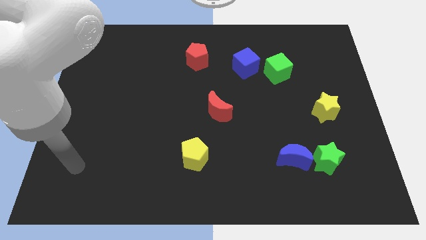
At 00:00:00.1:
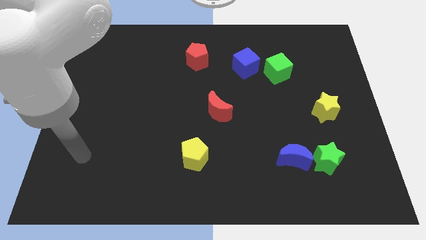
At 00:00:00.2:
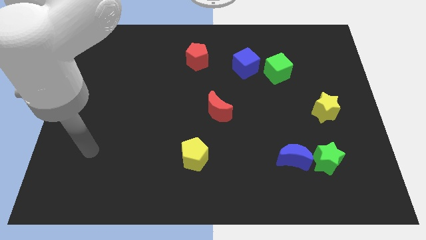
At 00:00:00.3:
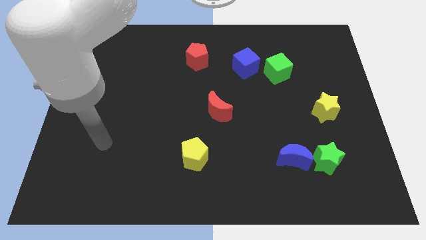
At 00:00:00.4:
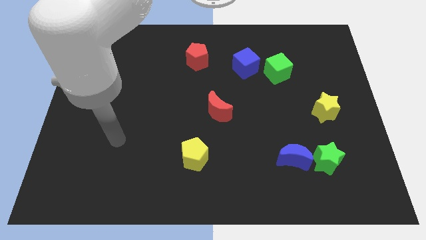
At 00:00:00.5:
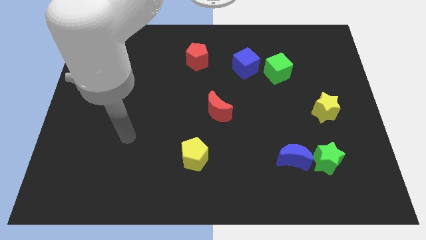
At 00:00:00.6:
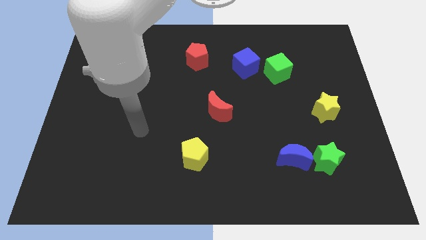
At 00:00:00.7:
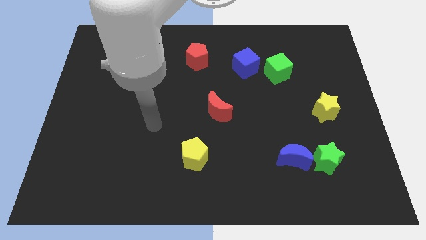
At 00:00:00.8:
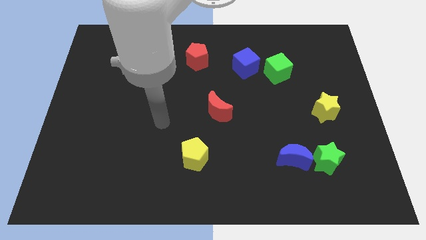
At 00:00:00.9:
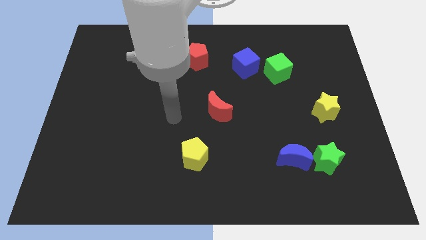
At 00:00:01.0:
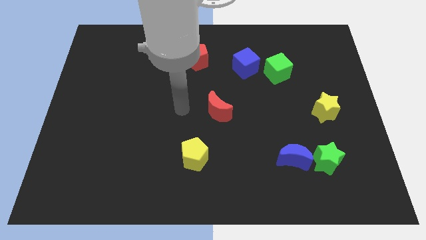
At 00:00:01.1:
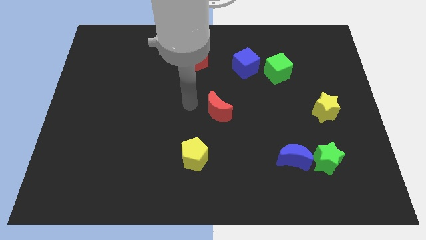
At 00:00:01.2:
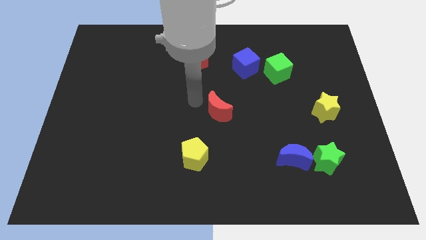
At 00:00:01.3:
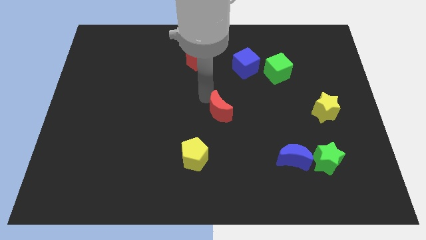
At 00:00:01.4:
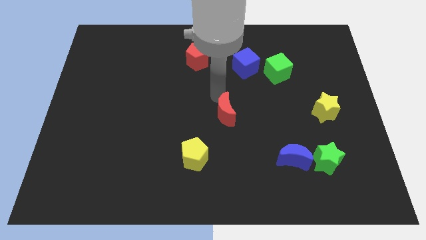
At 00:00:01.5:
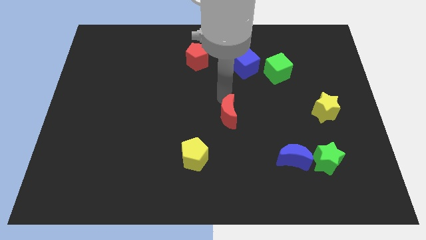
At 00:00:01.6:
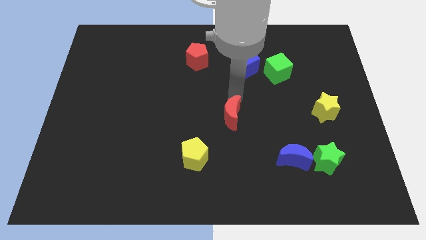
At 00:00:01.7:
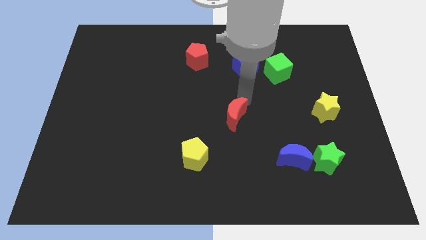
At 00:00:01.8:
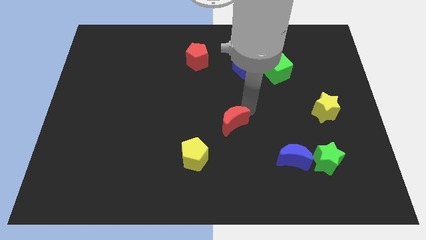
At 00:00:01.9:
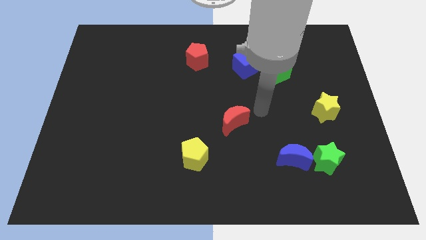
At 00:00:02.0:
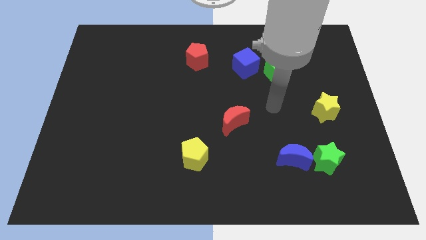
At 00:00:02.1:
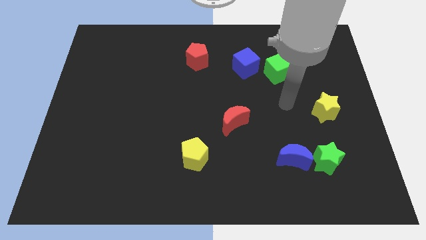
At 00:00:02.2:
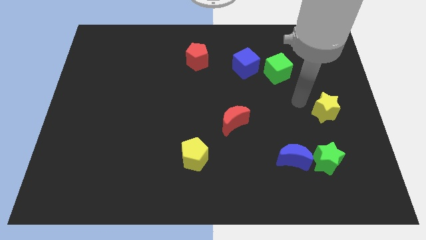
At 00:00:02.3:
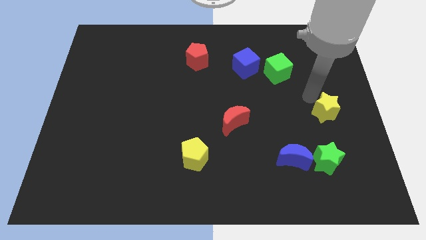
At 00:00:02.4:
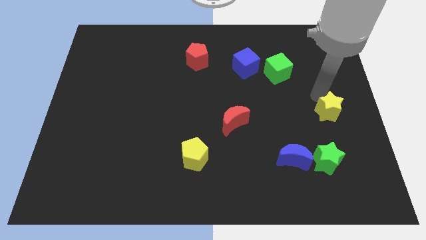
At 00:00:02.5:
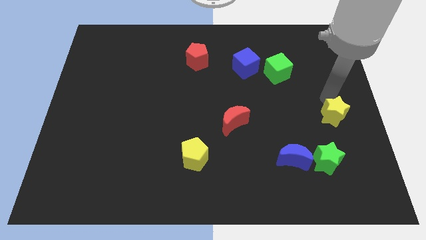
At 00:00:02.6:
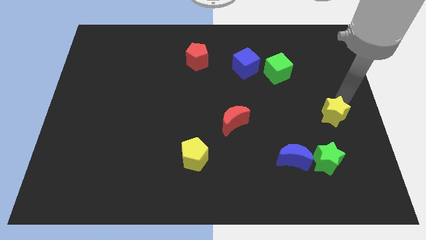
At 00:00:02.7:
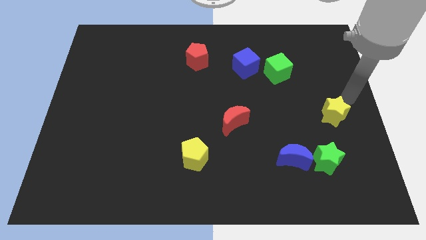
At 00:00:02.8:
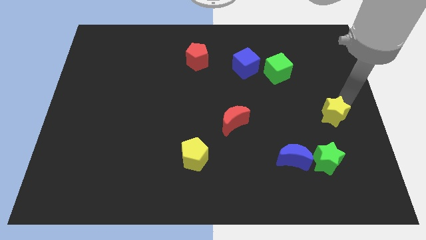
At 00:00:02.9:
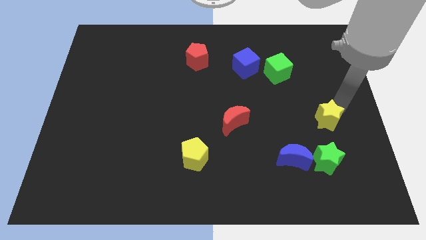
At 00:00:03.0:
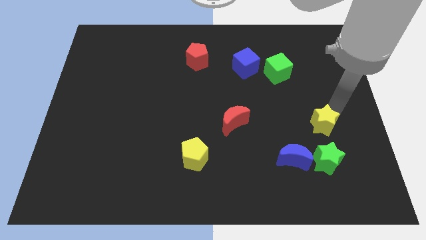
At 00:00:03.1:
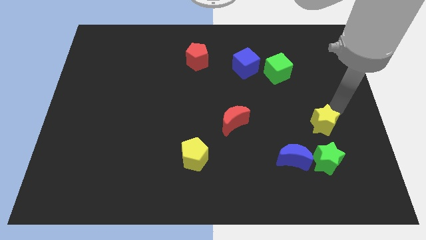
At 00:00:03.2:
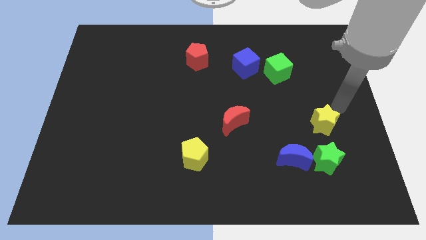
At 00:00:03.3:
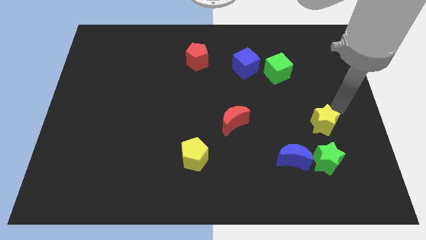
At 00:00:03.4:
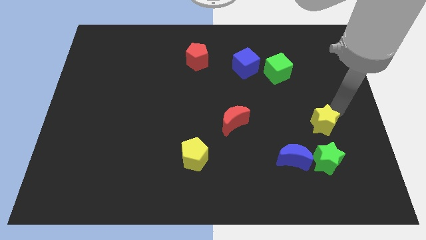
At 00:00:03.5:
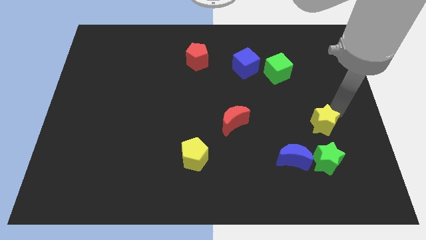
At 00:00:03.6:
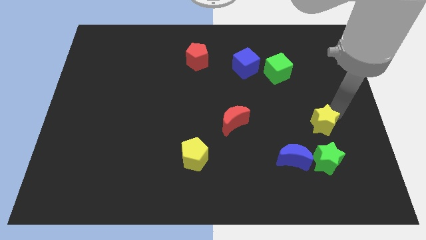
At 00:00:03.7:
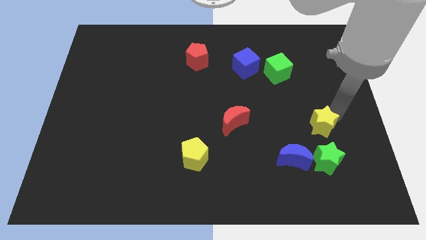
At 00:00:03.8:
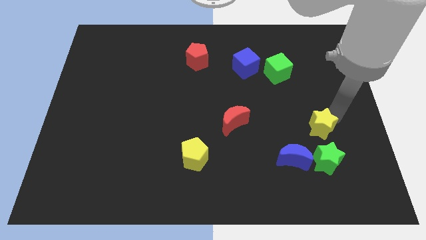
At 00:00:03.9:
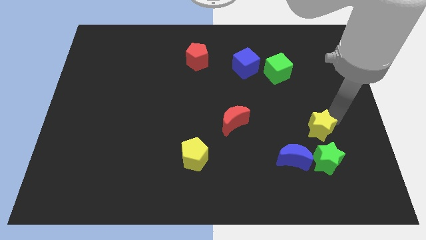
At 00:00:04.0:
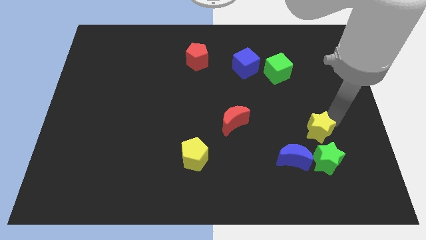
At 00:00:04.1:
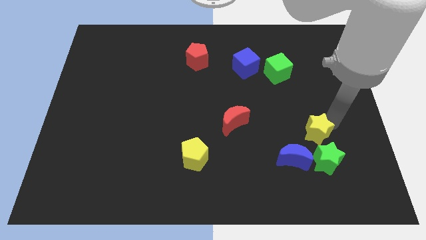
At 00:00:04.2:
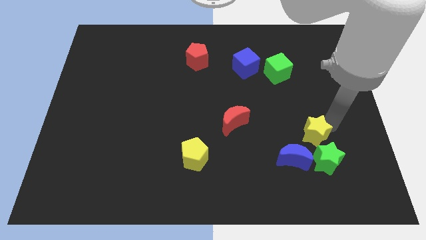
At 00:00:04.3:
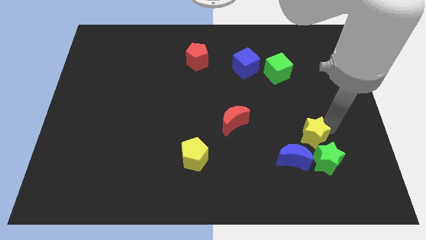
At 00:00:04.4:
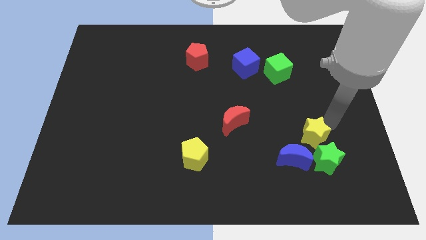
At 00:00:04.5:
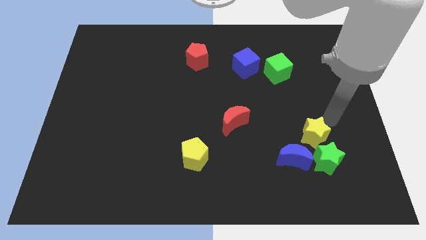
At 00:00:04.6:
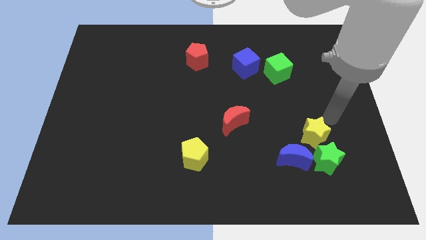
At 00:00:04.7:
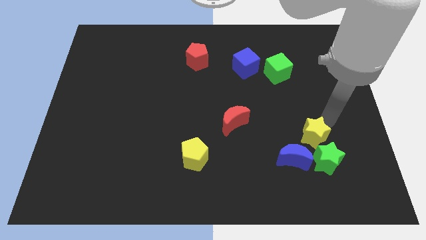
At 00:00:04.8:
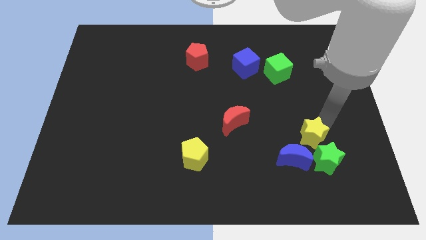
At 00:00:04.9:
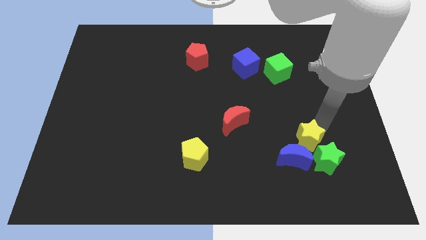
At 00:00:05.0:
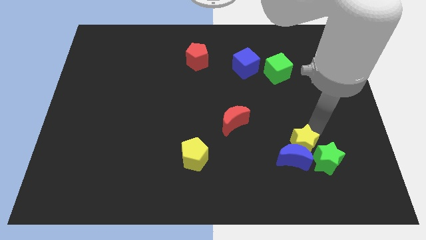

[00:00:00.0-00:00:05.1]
slide the yellow star to the blue moon

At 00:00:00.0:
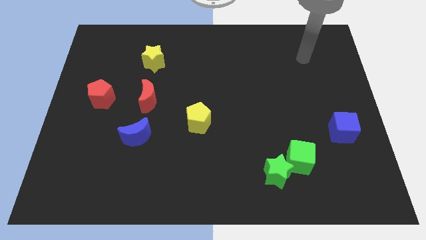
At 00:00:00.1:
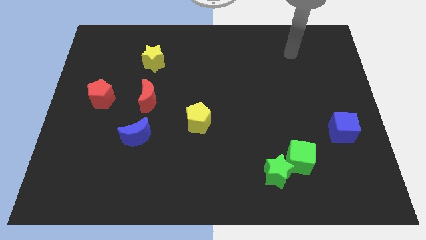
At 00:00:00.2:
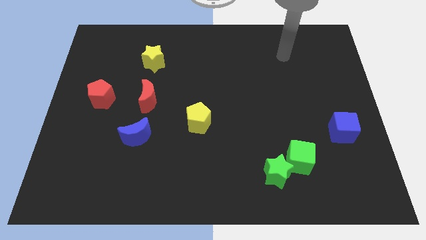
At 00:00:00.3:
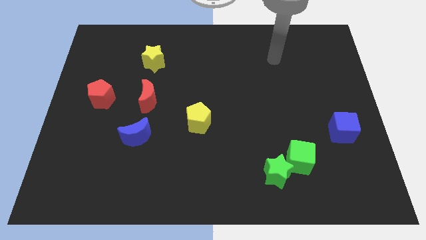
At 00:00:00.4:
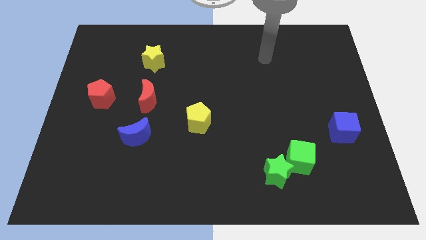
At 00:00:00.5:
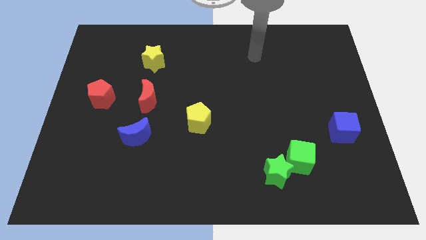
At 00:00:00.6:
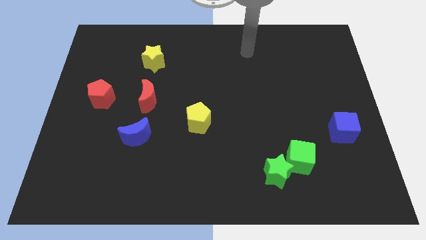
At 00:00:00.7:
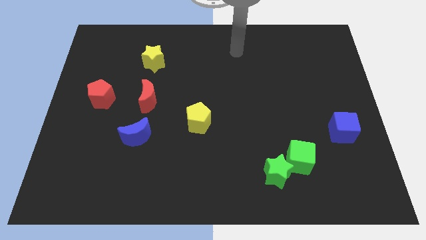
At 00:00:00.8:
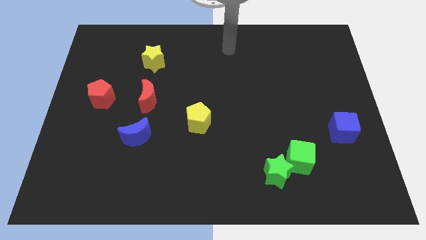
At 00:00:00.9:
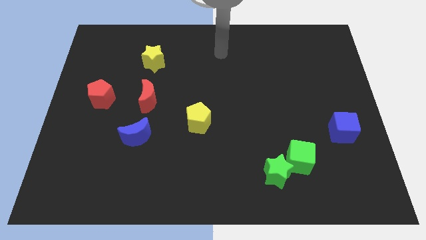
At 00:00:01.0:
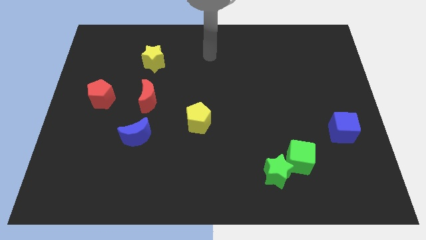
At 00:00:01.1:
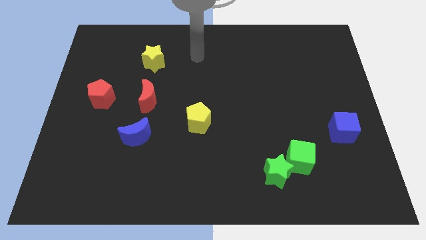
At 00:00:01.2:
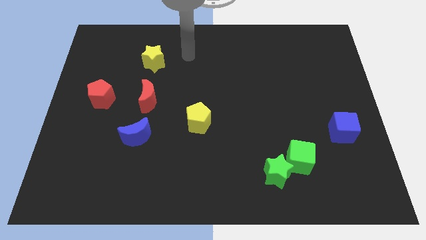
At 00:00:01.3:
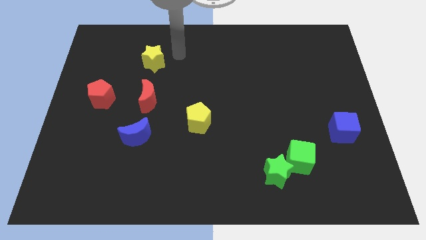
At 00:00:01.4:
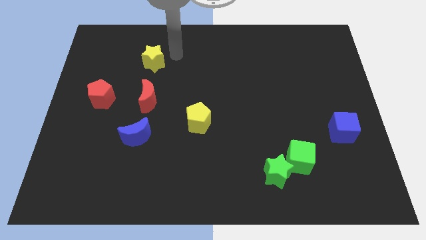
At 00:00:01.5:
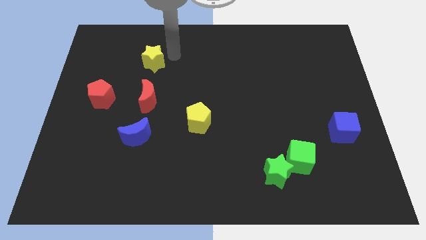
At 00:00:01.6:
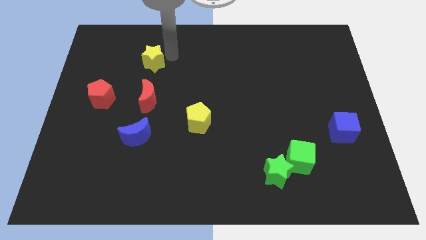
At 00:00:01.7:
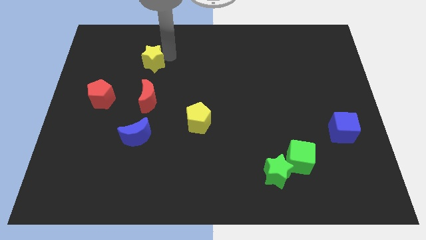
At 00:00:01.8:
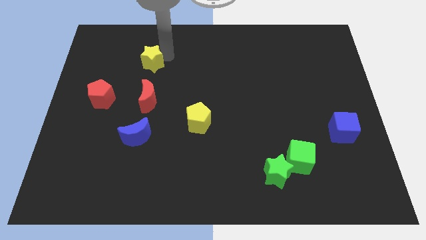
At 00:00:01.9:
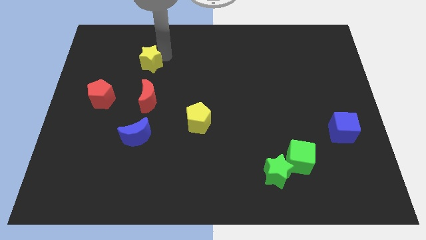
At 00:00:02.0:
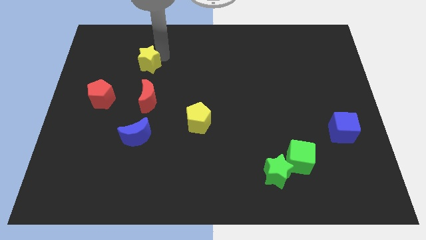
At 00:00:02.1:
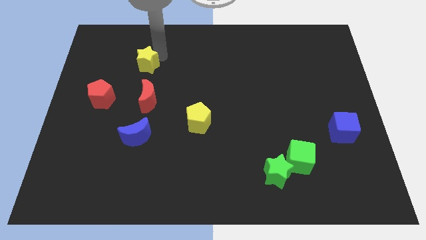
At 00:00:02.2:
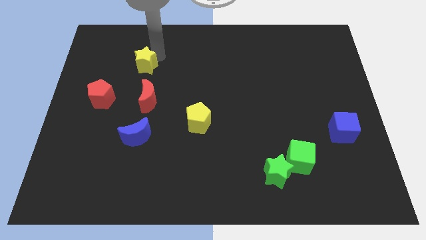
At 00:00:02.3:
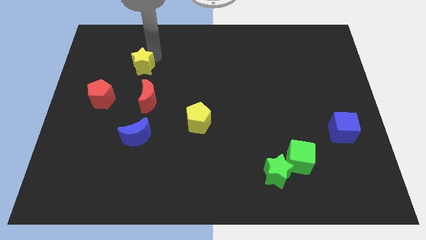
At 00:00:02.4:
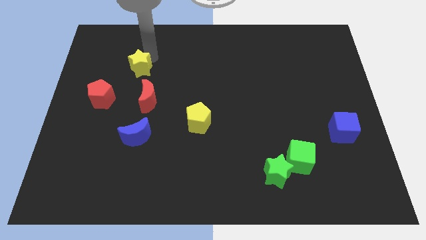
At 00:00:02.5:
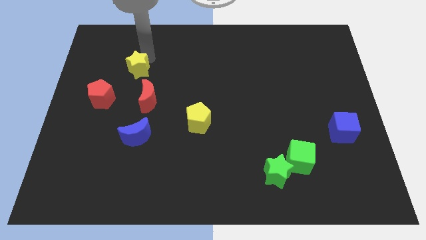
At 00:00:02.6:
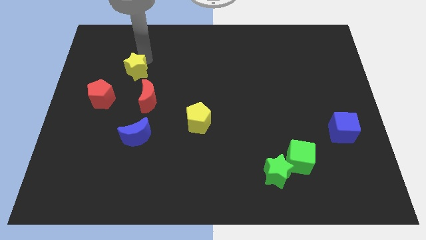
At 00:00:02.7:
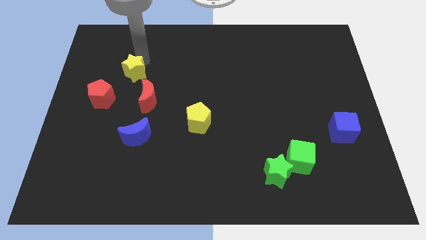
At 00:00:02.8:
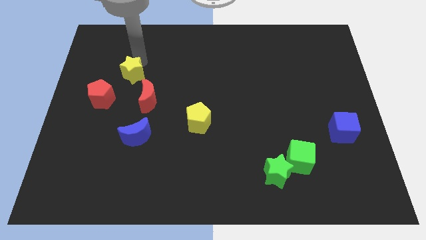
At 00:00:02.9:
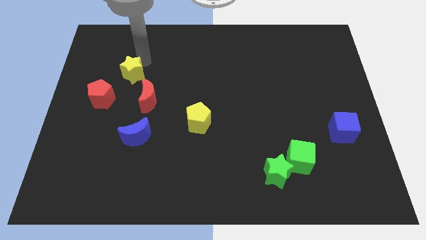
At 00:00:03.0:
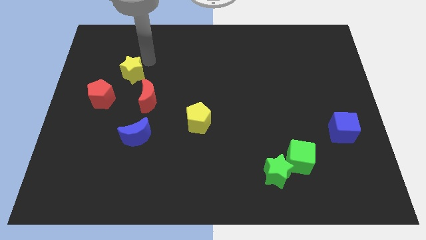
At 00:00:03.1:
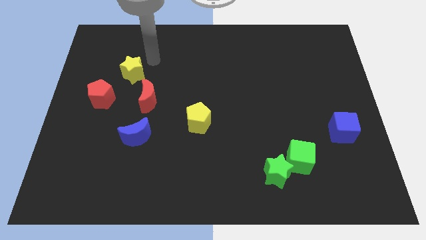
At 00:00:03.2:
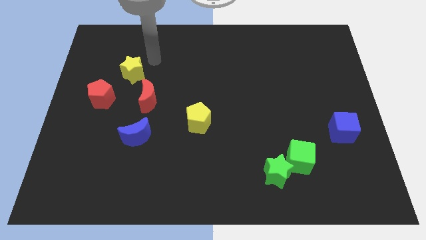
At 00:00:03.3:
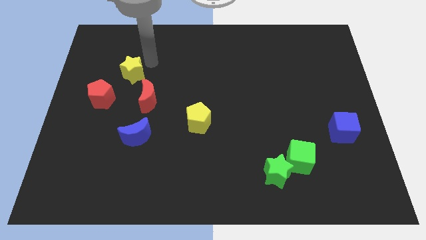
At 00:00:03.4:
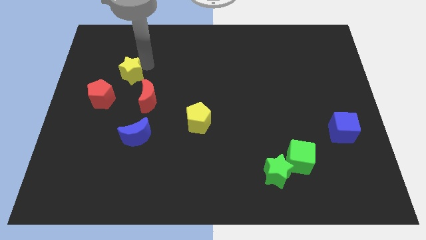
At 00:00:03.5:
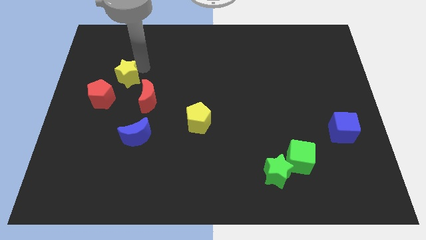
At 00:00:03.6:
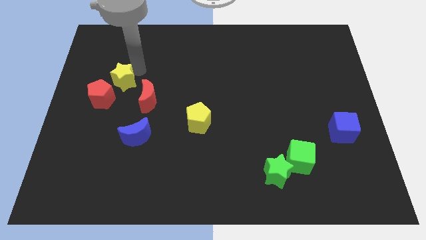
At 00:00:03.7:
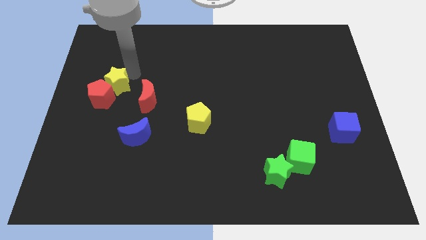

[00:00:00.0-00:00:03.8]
move the yellow star close to the red pentagon
